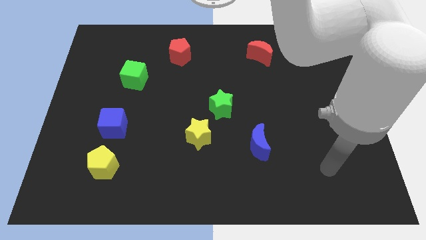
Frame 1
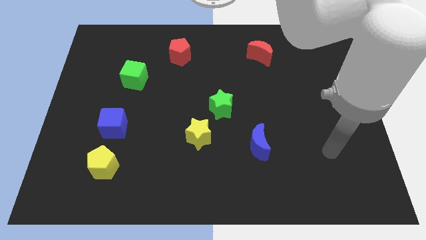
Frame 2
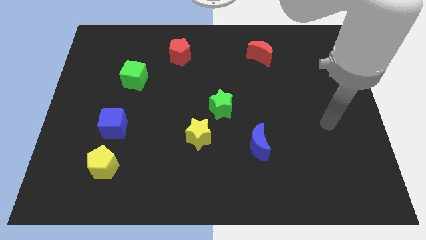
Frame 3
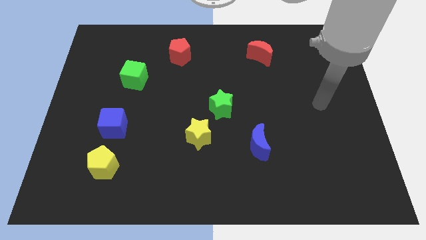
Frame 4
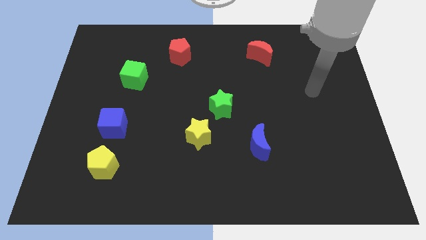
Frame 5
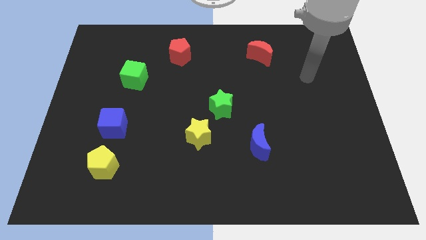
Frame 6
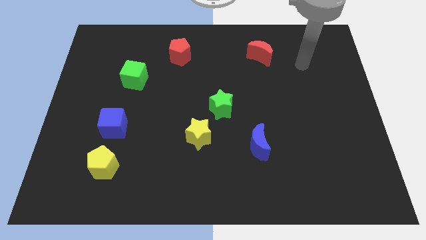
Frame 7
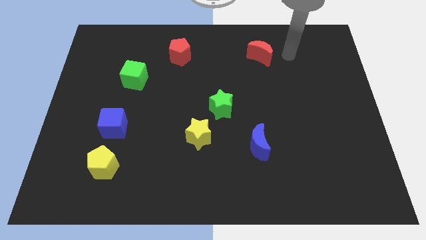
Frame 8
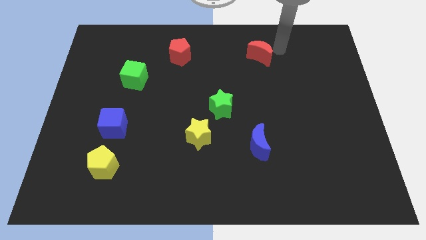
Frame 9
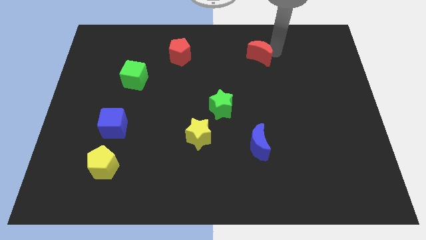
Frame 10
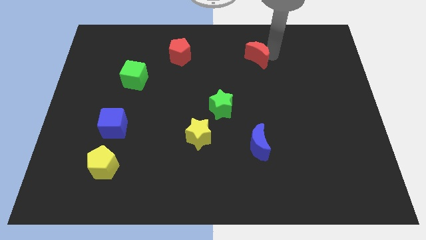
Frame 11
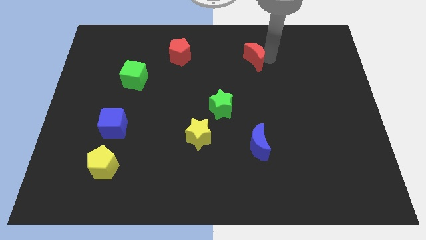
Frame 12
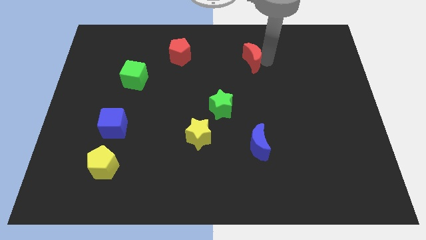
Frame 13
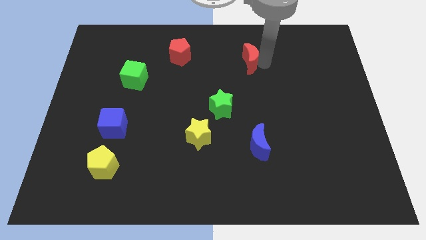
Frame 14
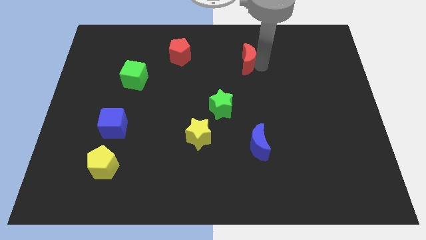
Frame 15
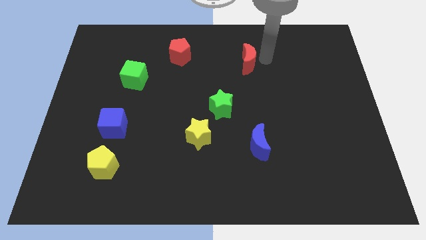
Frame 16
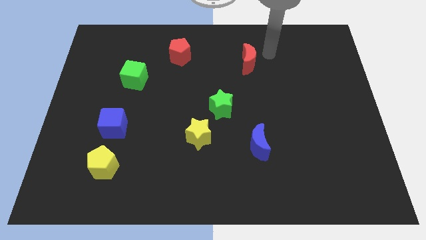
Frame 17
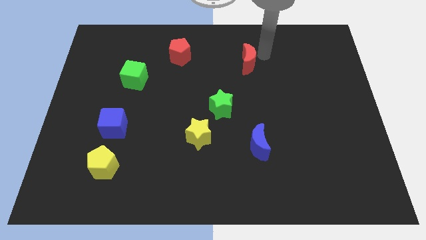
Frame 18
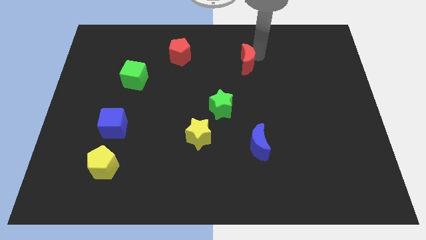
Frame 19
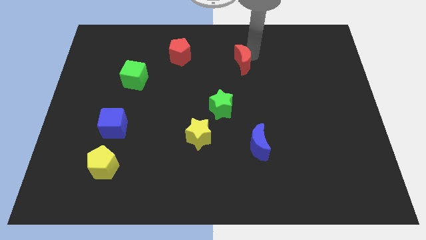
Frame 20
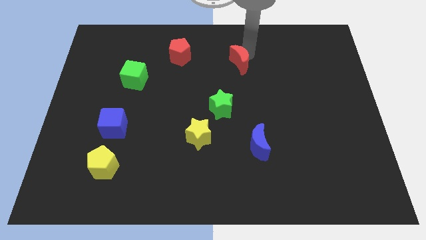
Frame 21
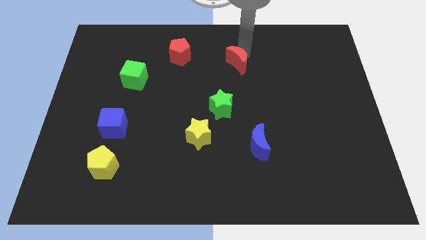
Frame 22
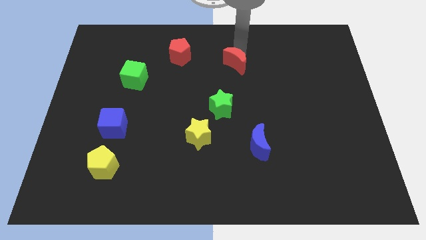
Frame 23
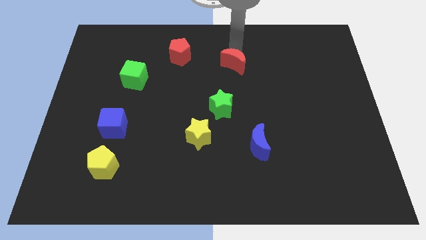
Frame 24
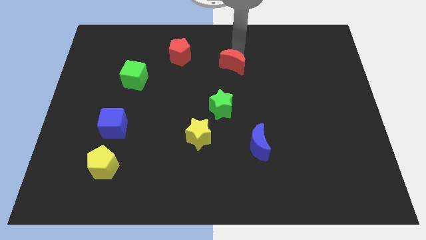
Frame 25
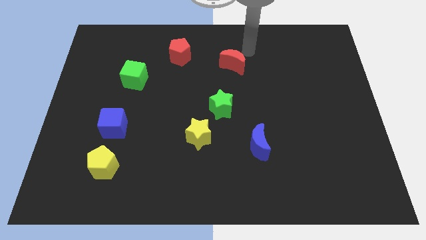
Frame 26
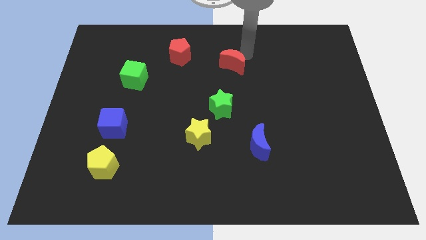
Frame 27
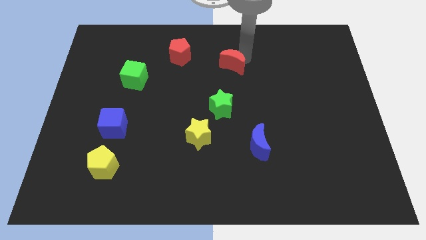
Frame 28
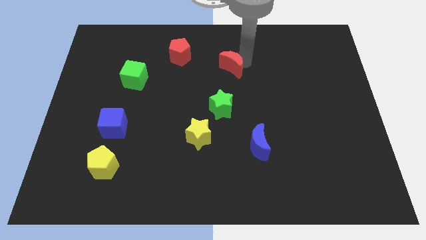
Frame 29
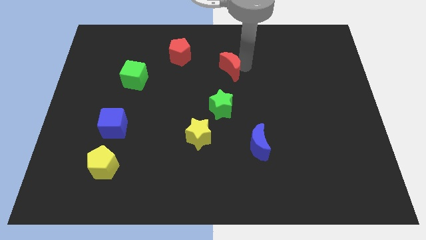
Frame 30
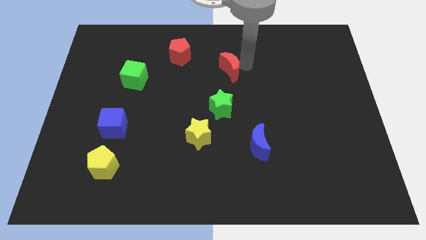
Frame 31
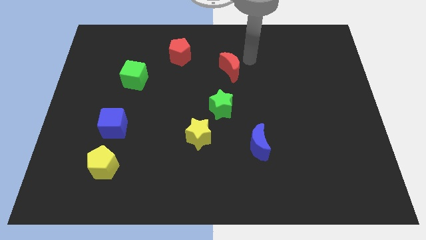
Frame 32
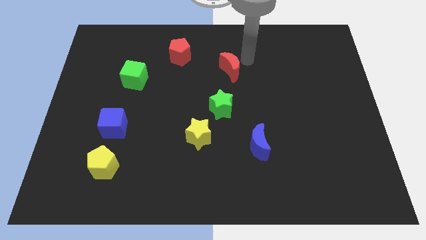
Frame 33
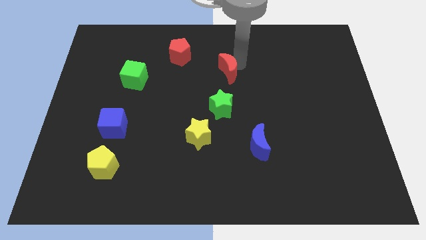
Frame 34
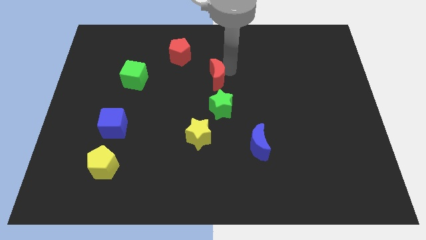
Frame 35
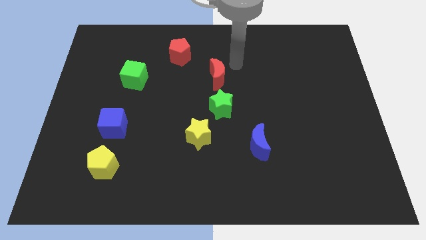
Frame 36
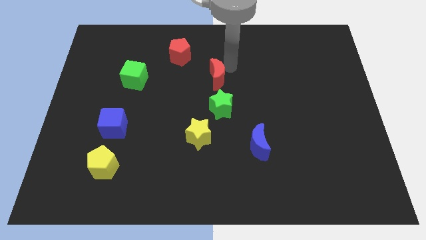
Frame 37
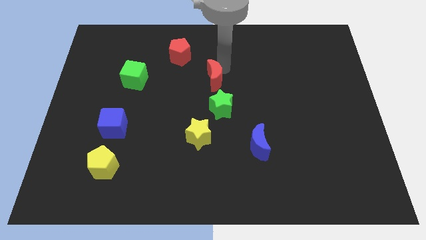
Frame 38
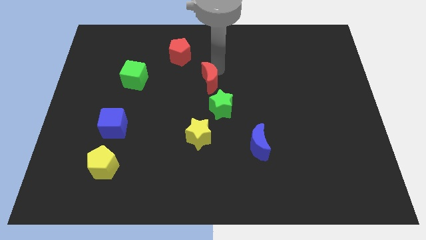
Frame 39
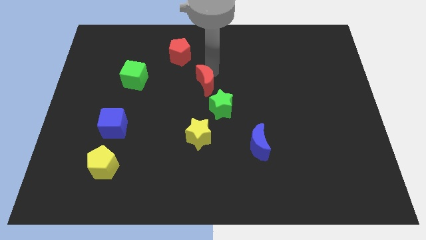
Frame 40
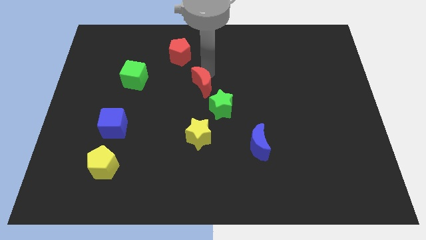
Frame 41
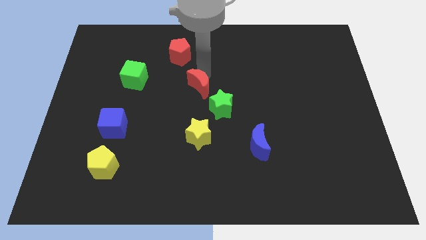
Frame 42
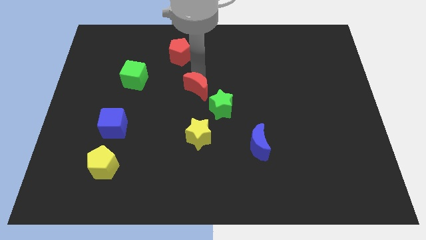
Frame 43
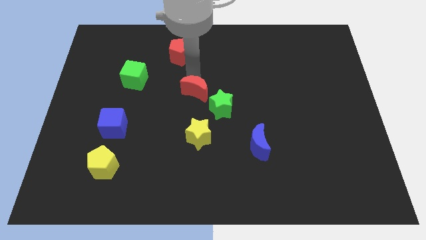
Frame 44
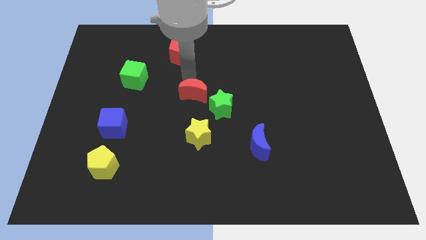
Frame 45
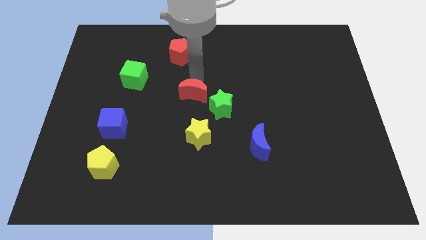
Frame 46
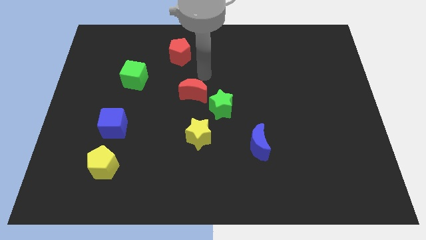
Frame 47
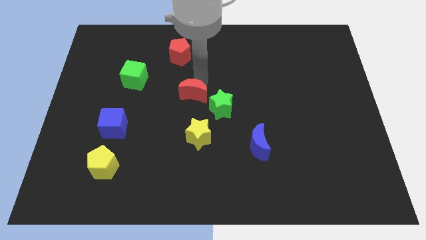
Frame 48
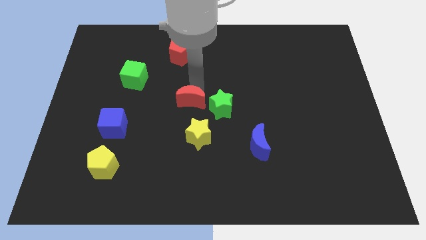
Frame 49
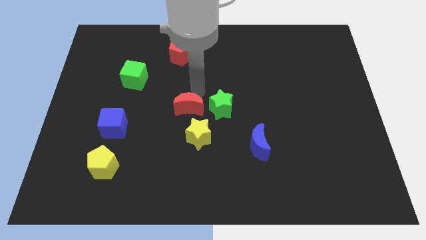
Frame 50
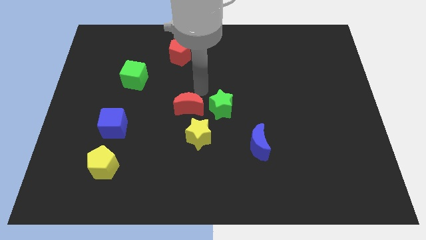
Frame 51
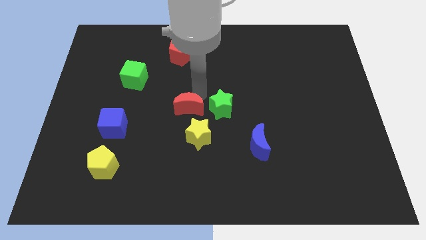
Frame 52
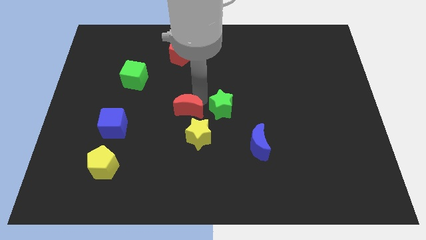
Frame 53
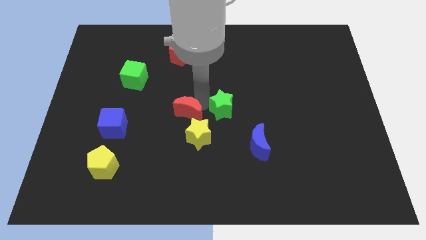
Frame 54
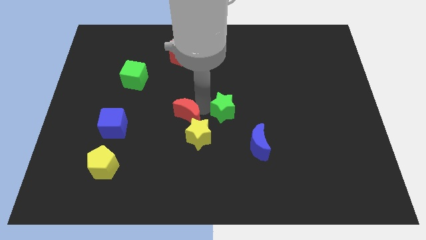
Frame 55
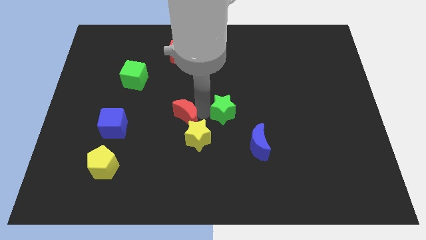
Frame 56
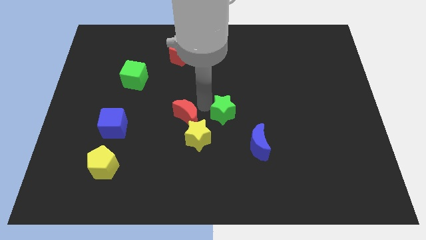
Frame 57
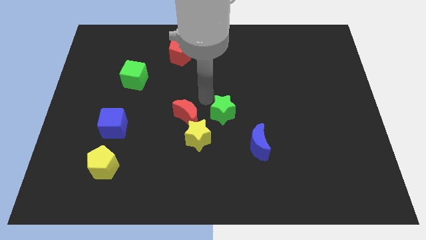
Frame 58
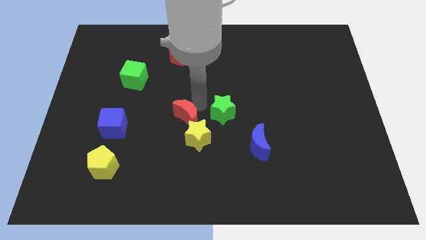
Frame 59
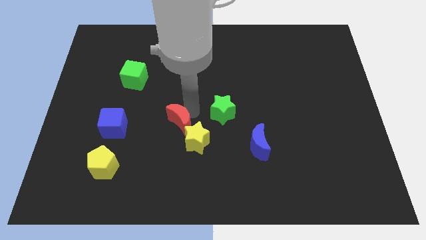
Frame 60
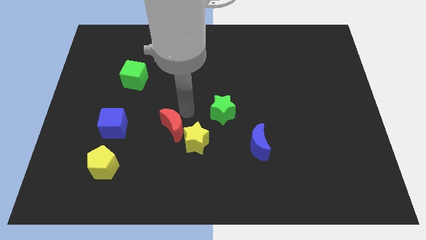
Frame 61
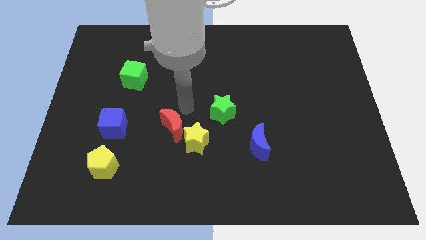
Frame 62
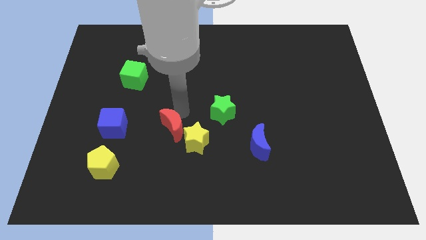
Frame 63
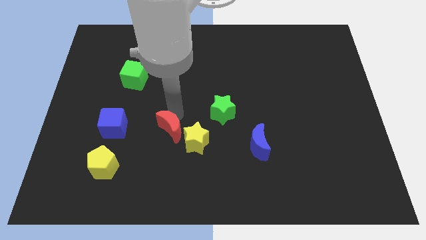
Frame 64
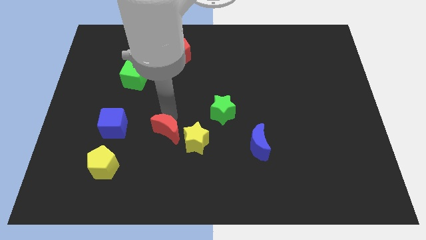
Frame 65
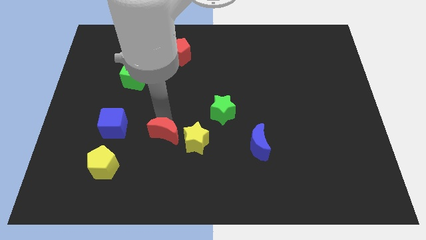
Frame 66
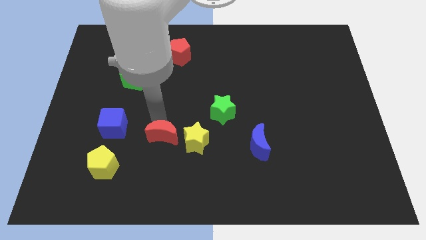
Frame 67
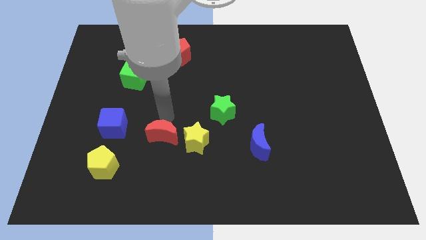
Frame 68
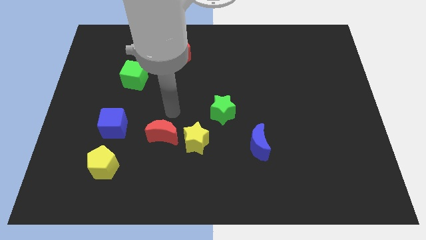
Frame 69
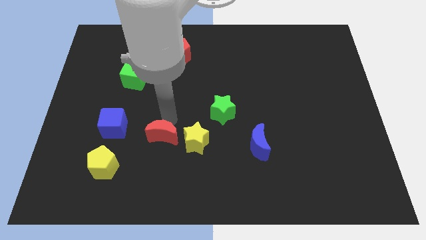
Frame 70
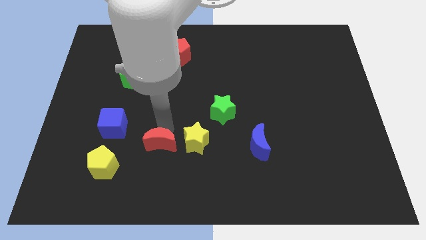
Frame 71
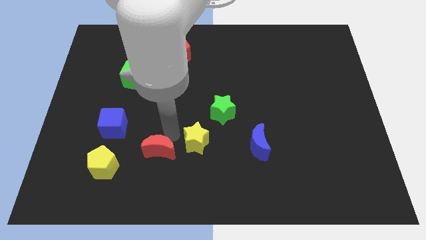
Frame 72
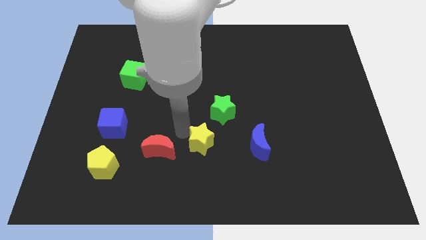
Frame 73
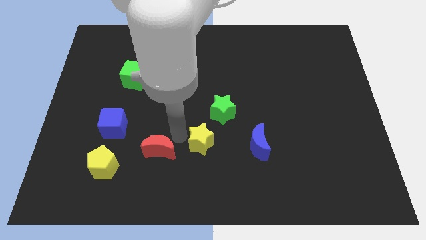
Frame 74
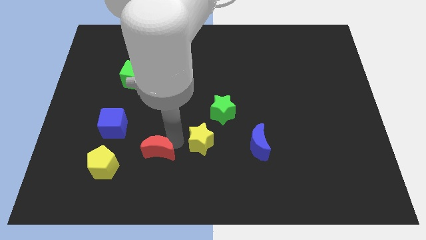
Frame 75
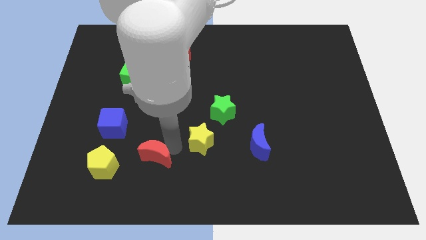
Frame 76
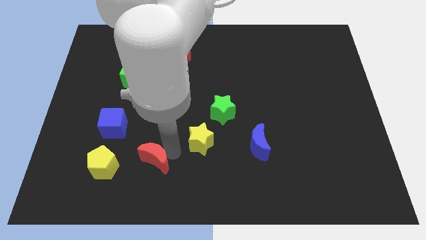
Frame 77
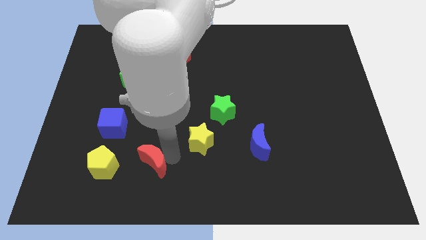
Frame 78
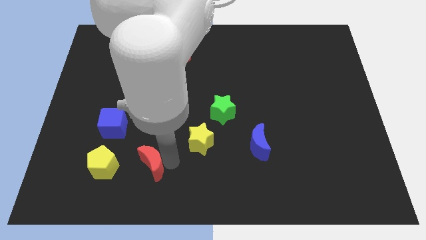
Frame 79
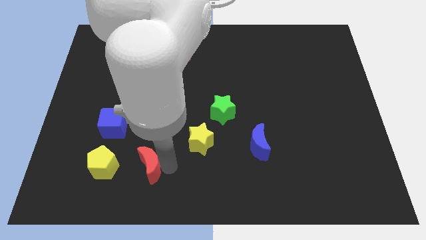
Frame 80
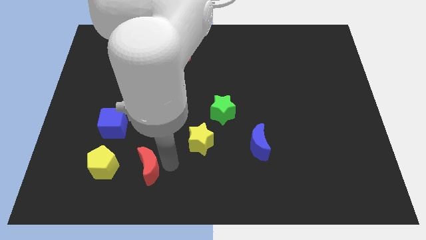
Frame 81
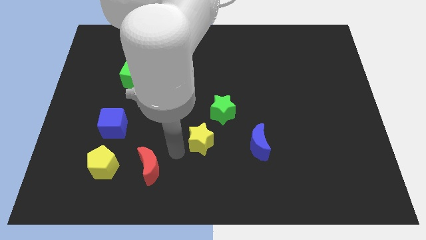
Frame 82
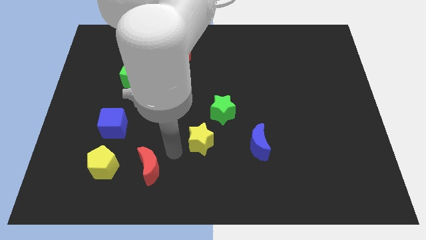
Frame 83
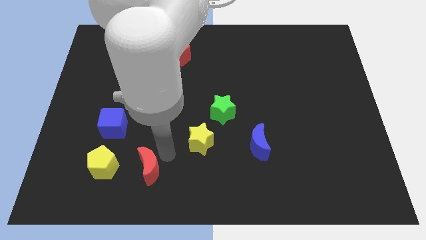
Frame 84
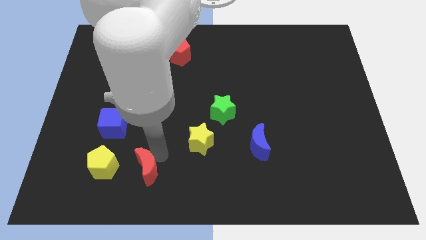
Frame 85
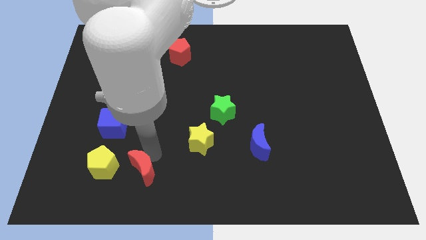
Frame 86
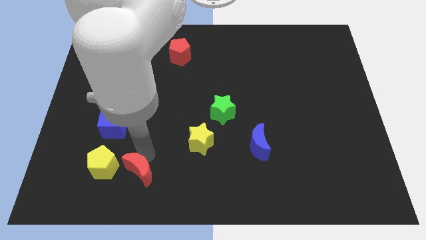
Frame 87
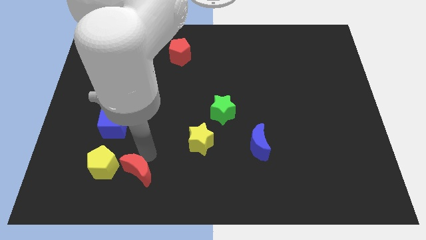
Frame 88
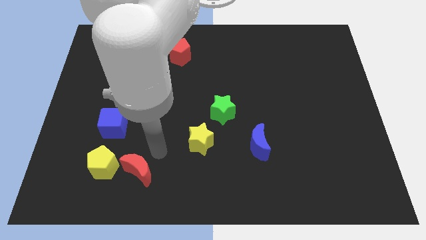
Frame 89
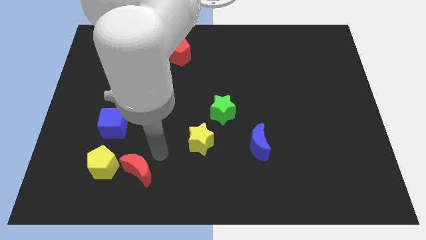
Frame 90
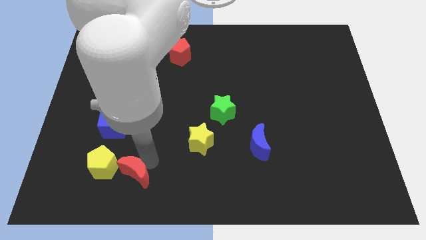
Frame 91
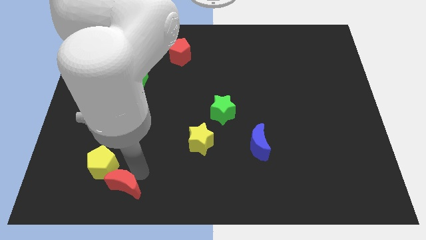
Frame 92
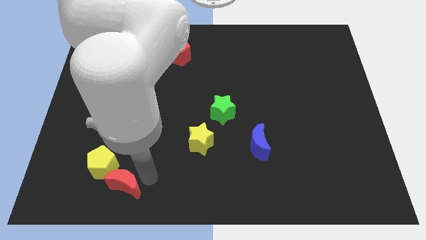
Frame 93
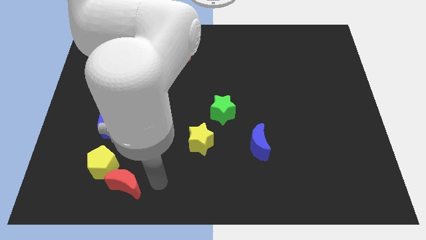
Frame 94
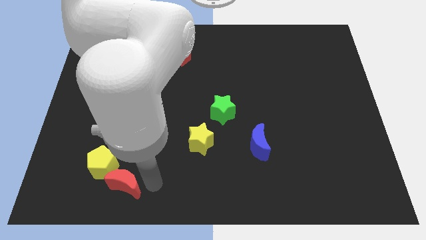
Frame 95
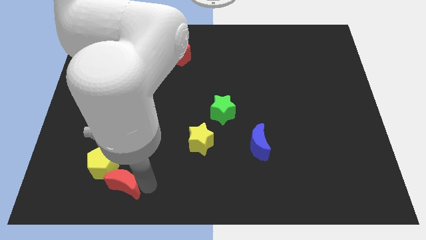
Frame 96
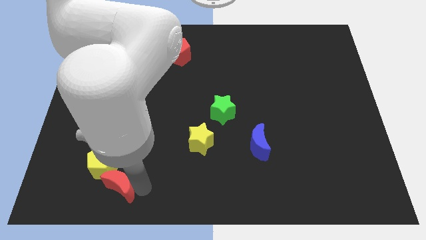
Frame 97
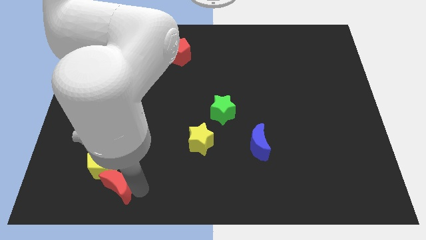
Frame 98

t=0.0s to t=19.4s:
push the red moon to the bottom of the blue cube
